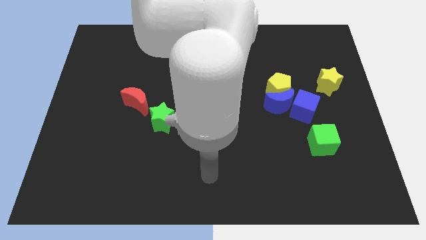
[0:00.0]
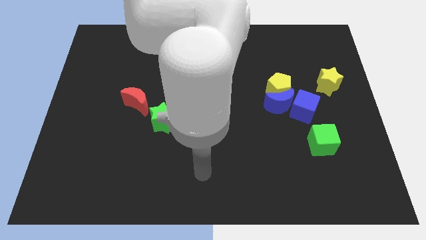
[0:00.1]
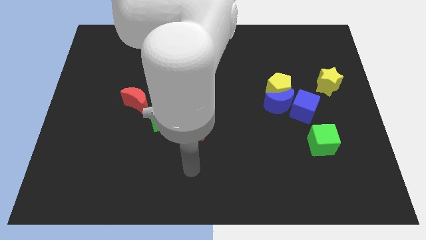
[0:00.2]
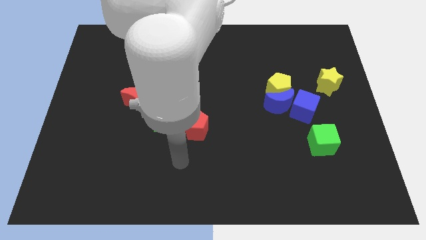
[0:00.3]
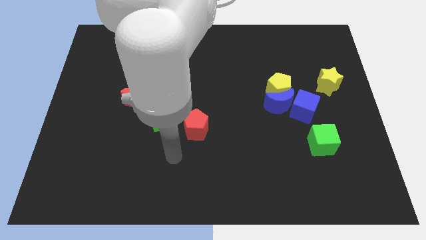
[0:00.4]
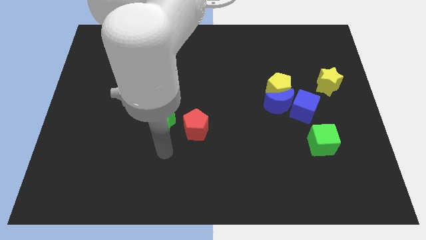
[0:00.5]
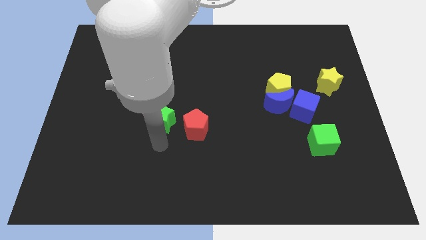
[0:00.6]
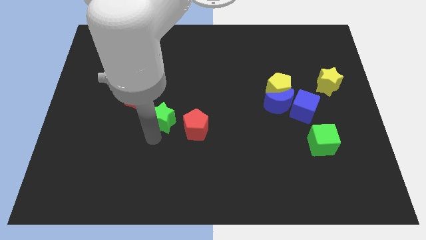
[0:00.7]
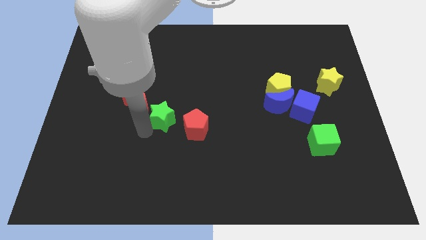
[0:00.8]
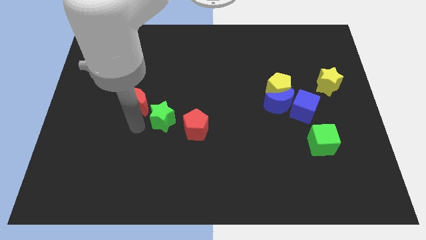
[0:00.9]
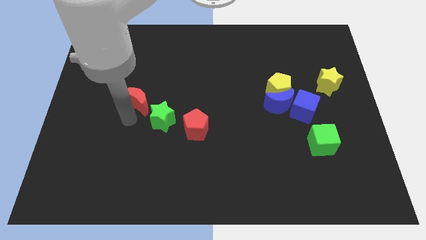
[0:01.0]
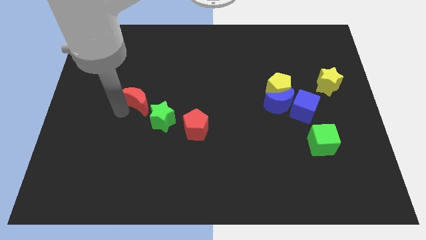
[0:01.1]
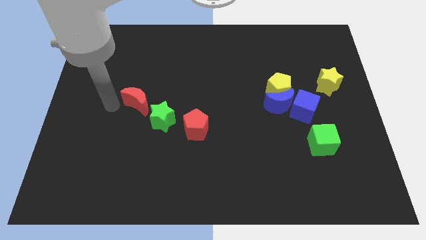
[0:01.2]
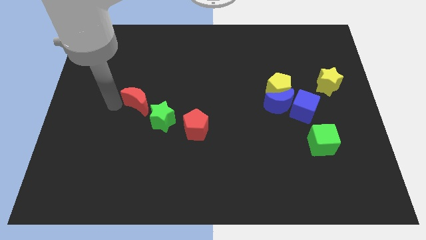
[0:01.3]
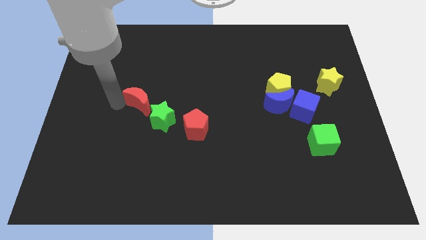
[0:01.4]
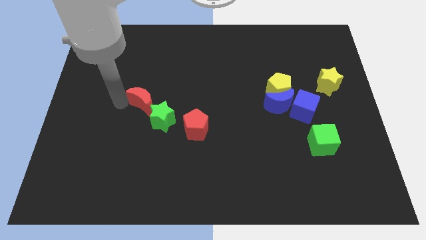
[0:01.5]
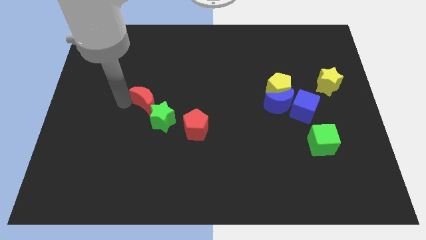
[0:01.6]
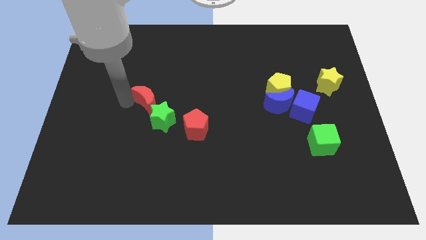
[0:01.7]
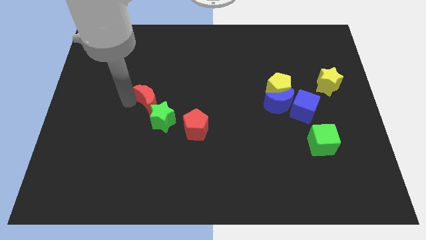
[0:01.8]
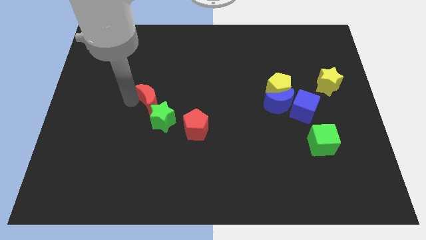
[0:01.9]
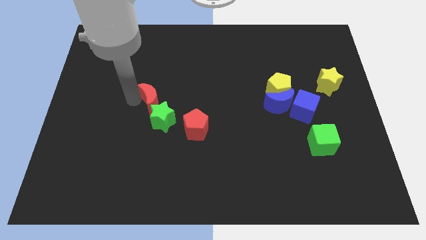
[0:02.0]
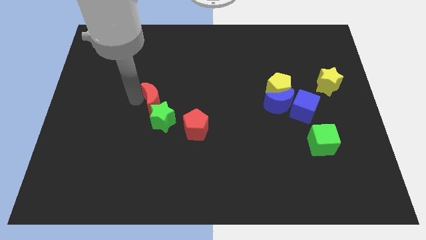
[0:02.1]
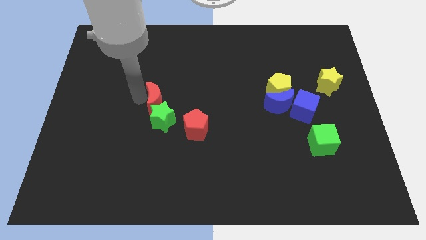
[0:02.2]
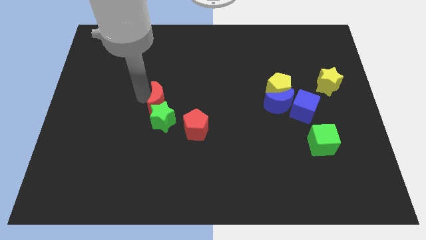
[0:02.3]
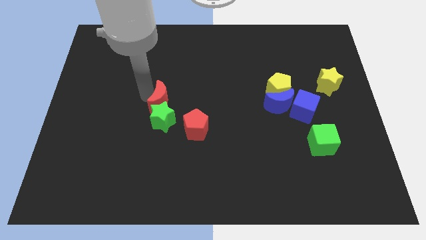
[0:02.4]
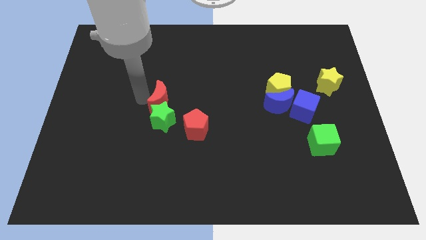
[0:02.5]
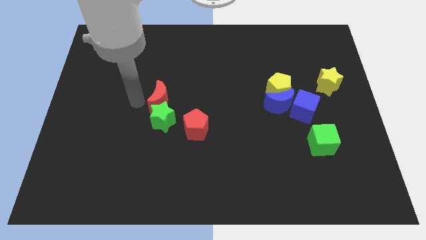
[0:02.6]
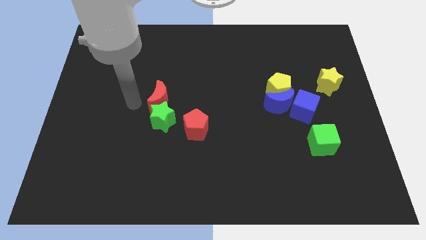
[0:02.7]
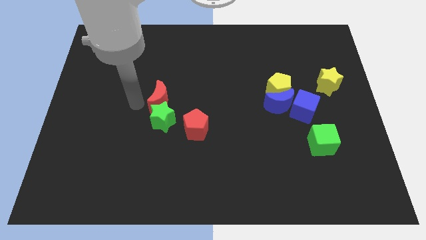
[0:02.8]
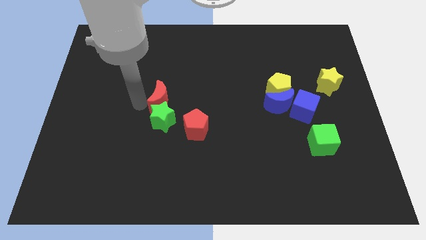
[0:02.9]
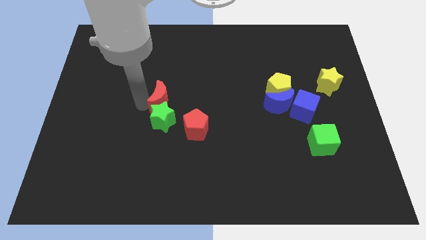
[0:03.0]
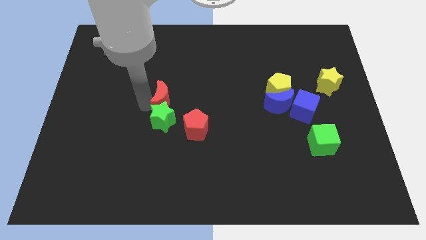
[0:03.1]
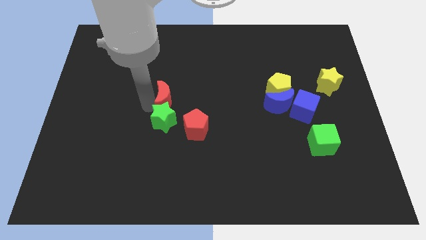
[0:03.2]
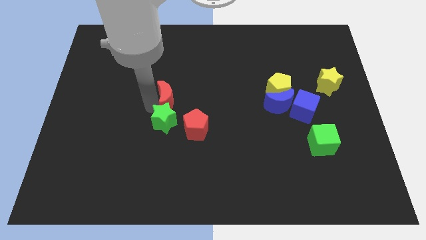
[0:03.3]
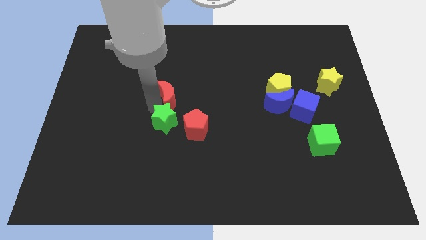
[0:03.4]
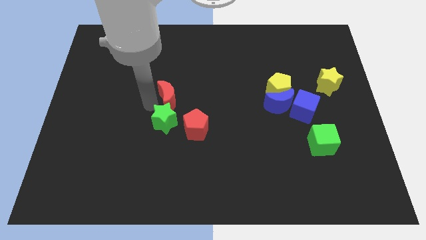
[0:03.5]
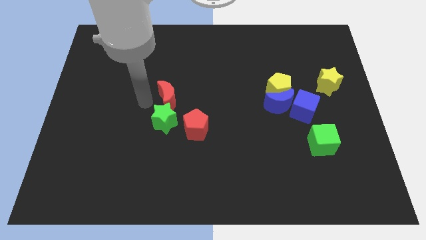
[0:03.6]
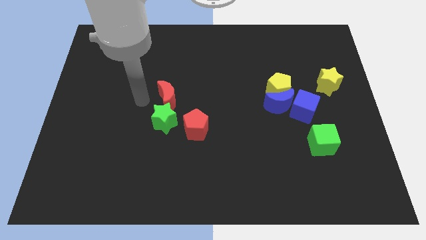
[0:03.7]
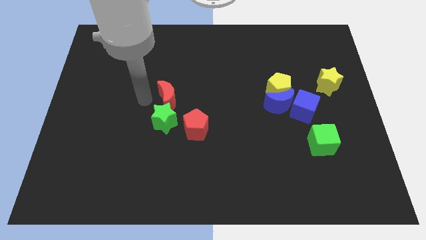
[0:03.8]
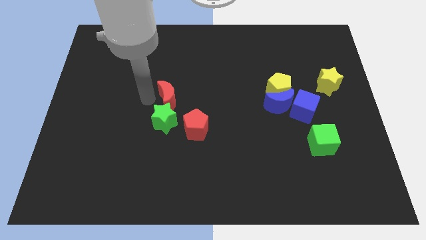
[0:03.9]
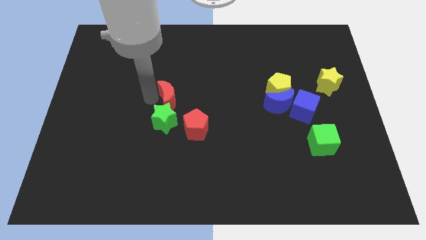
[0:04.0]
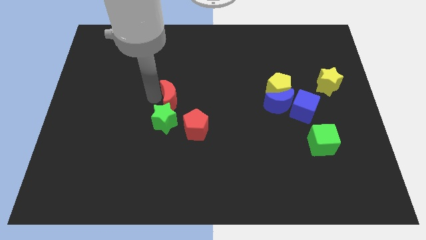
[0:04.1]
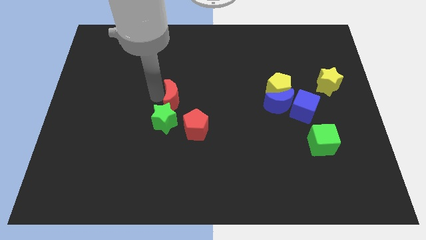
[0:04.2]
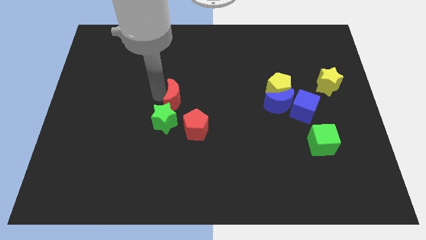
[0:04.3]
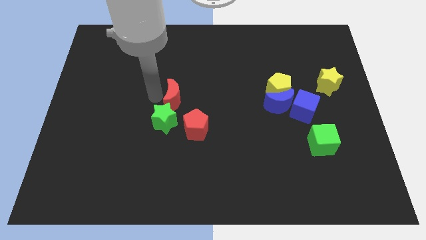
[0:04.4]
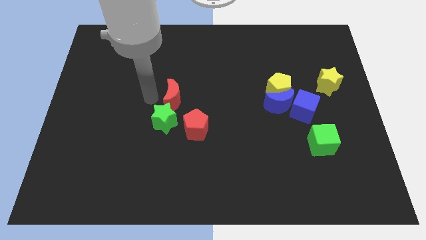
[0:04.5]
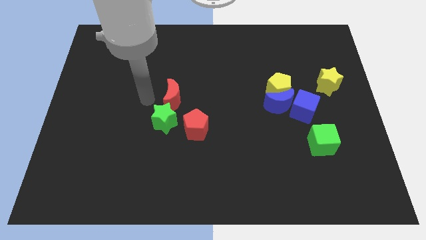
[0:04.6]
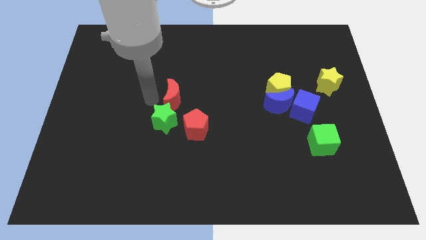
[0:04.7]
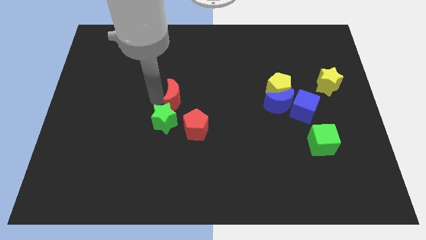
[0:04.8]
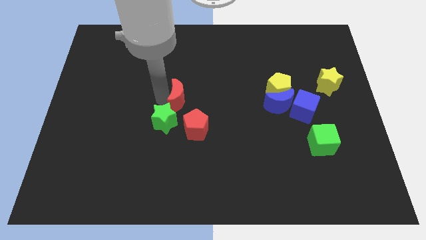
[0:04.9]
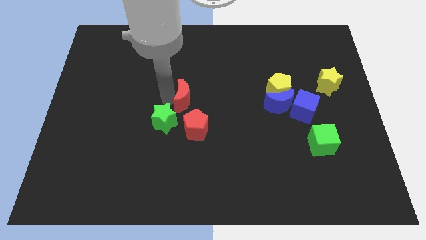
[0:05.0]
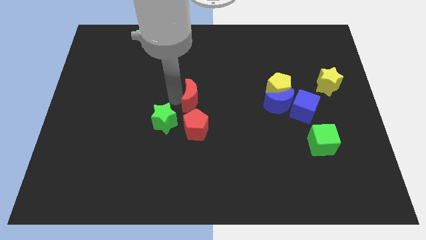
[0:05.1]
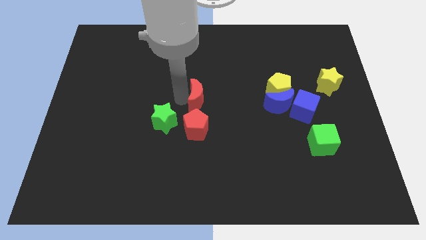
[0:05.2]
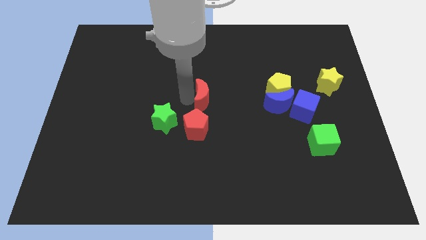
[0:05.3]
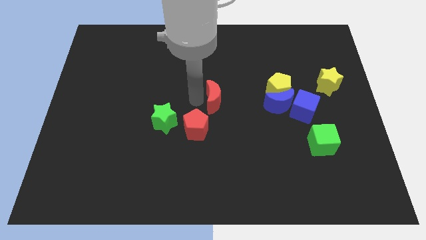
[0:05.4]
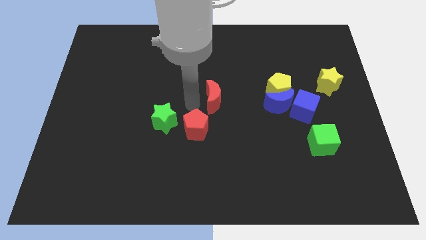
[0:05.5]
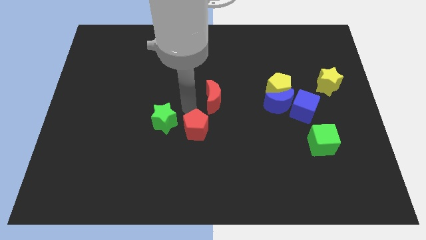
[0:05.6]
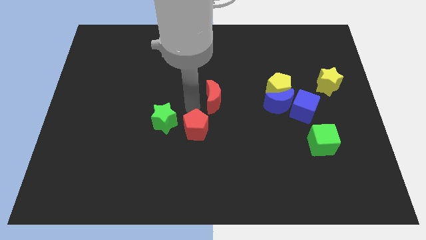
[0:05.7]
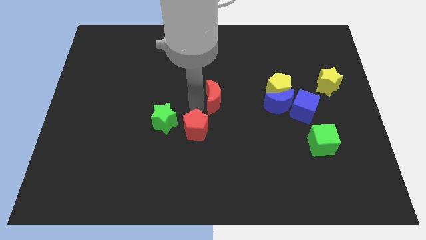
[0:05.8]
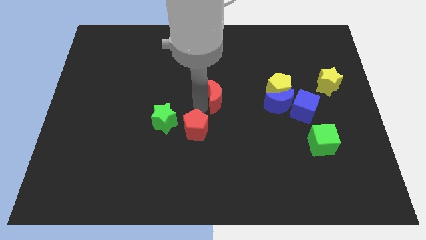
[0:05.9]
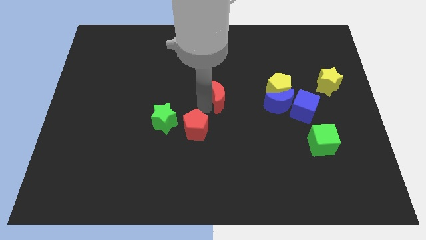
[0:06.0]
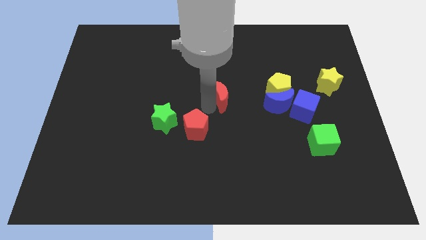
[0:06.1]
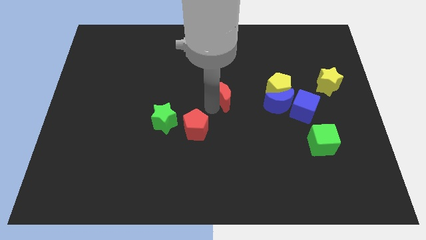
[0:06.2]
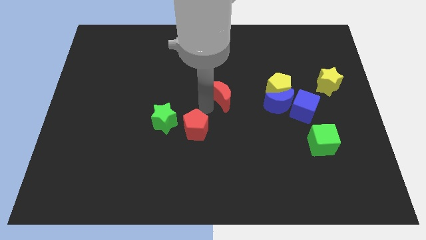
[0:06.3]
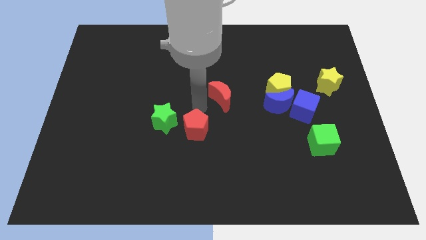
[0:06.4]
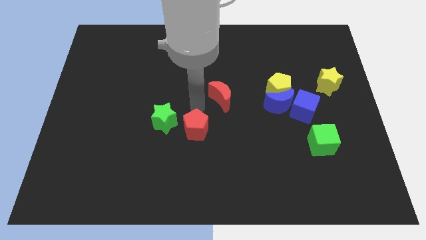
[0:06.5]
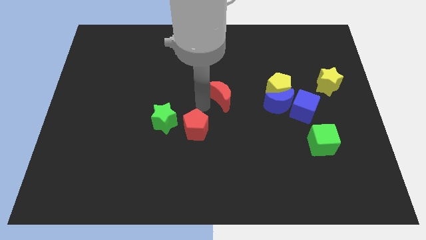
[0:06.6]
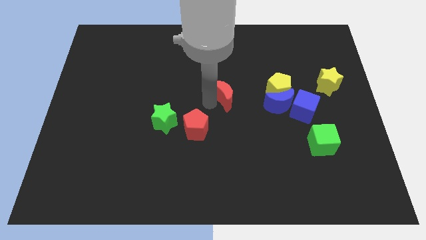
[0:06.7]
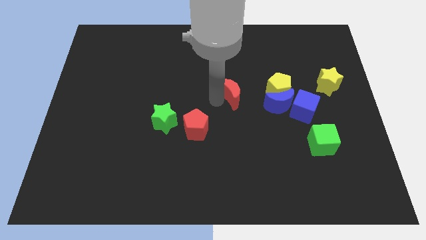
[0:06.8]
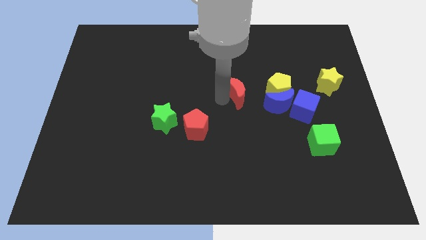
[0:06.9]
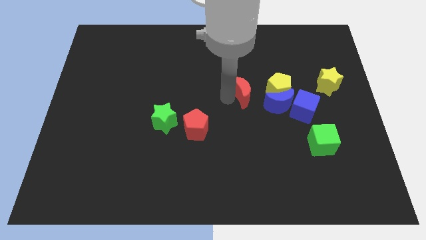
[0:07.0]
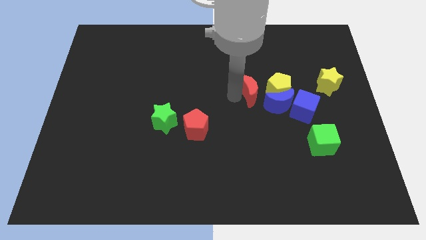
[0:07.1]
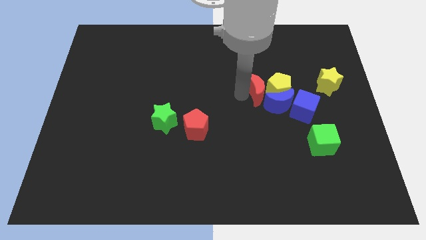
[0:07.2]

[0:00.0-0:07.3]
push the red moon next to the yellow pentagon

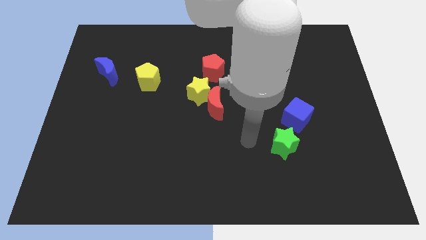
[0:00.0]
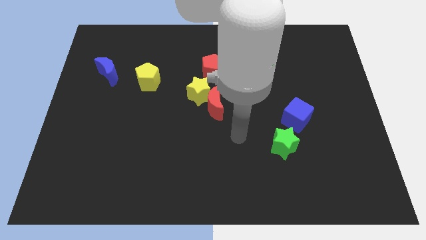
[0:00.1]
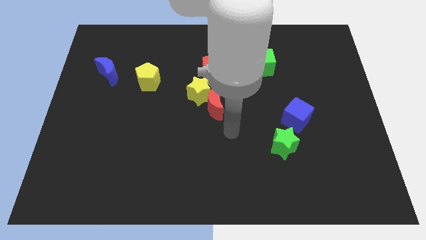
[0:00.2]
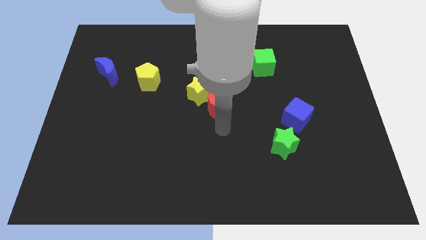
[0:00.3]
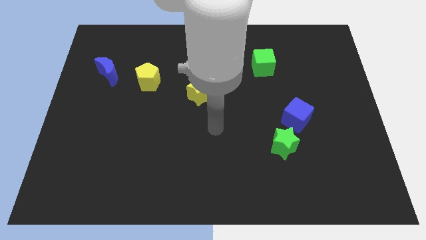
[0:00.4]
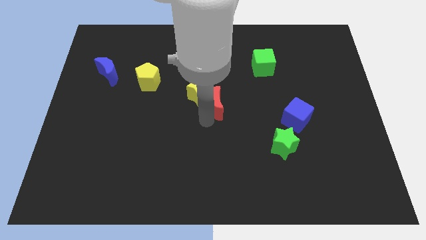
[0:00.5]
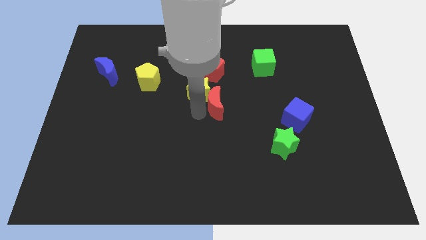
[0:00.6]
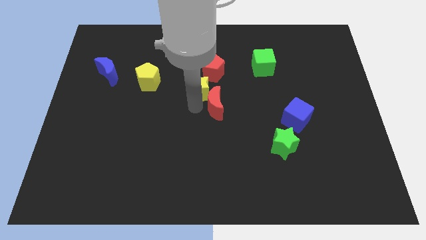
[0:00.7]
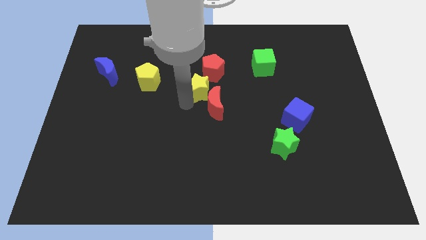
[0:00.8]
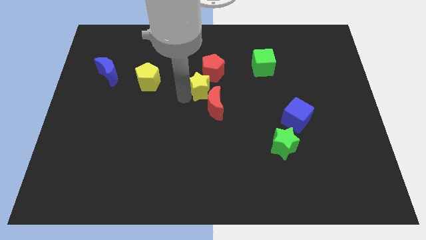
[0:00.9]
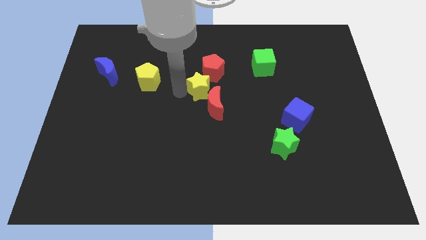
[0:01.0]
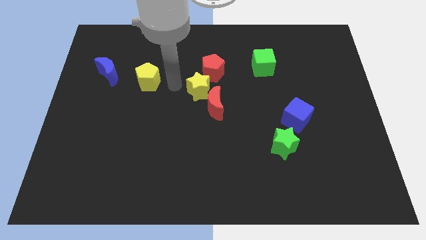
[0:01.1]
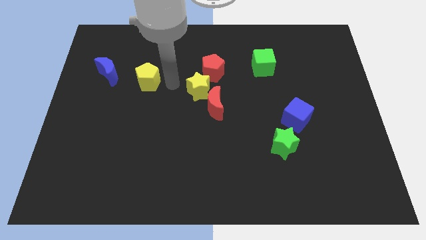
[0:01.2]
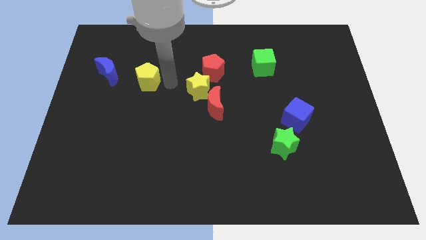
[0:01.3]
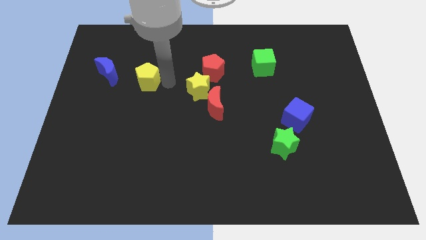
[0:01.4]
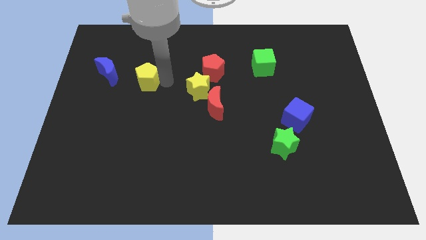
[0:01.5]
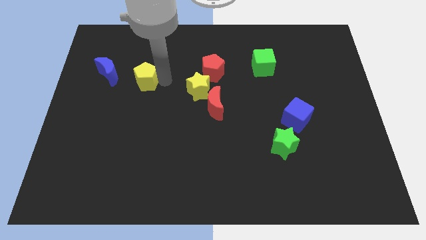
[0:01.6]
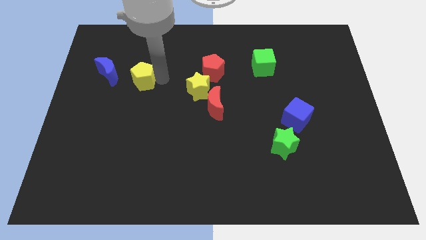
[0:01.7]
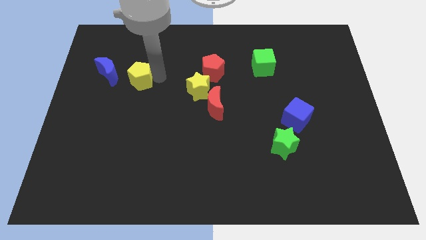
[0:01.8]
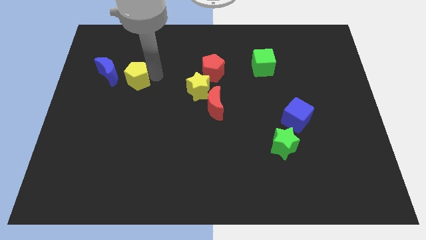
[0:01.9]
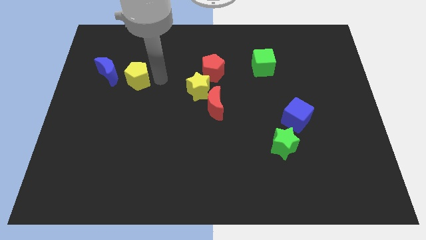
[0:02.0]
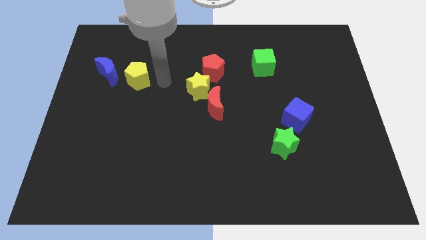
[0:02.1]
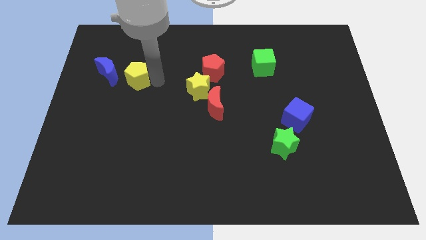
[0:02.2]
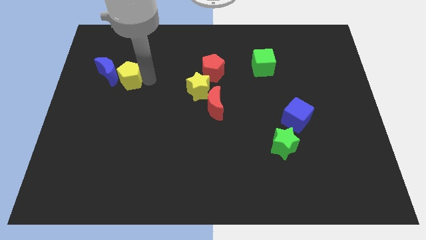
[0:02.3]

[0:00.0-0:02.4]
put the yellow pentagon to the blue moon
